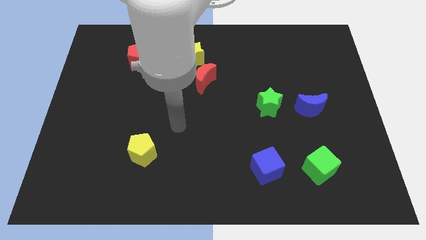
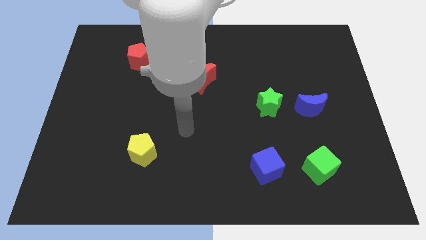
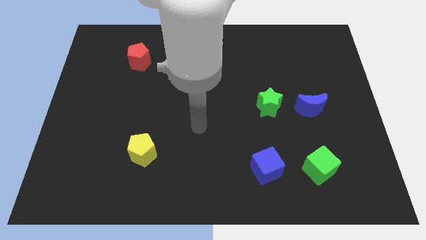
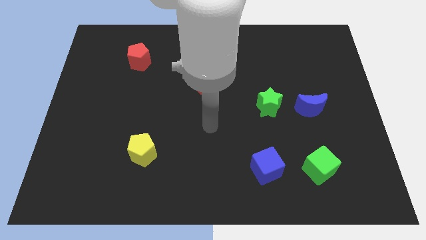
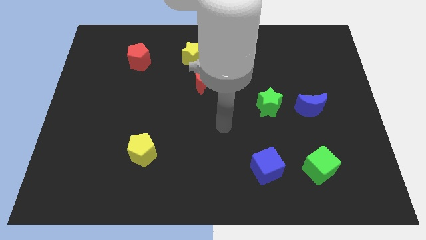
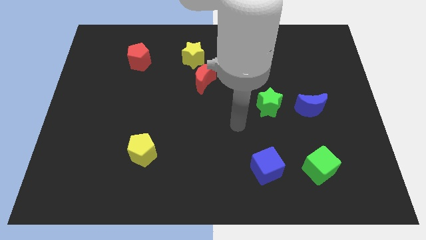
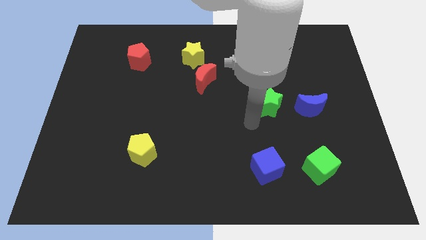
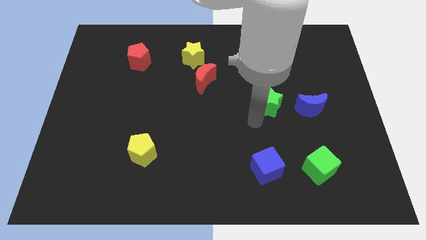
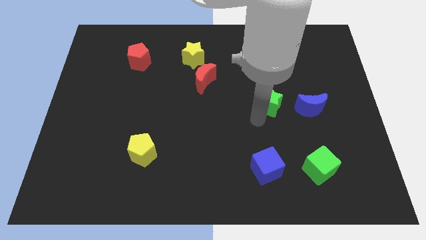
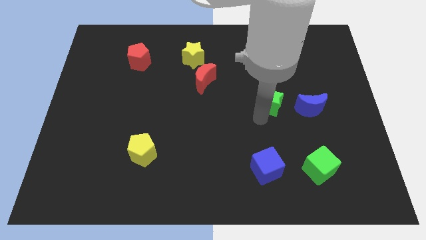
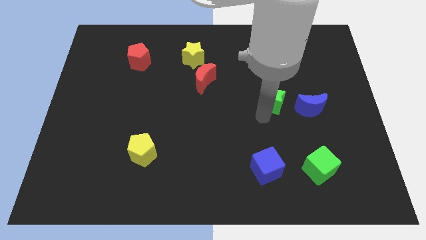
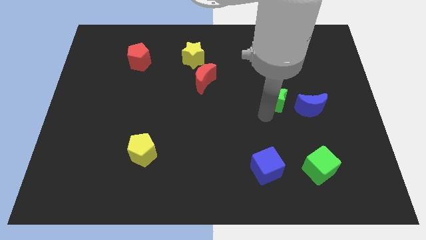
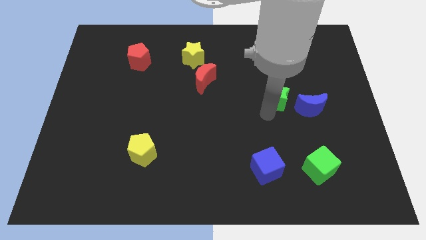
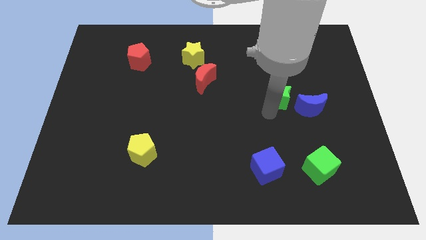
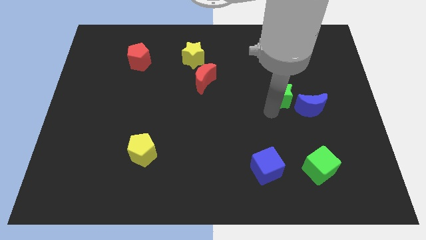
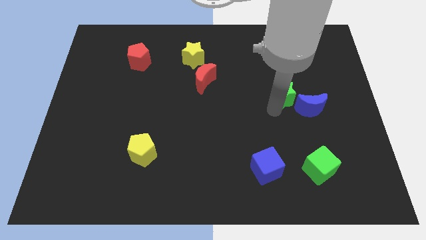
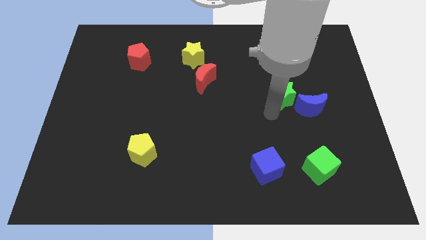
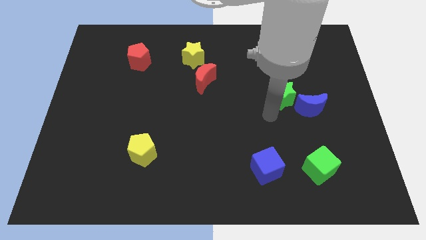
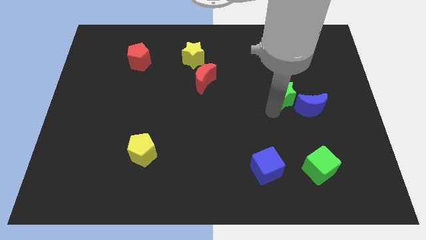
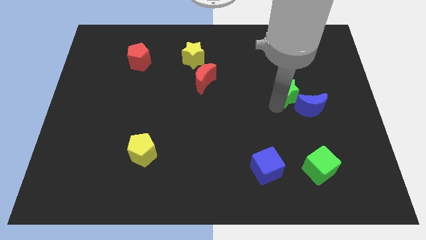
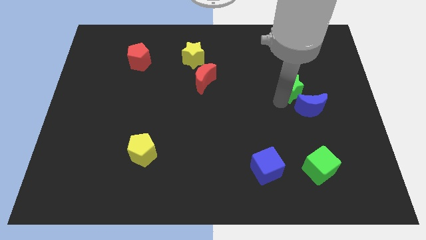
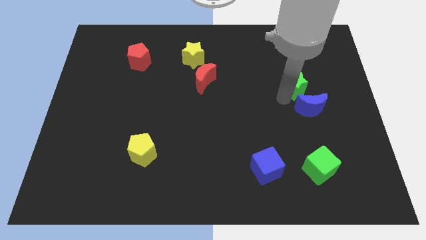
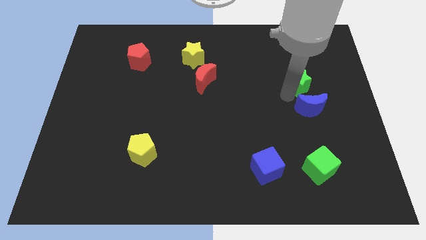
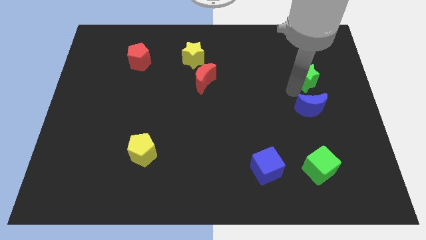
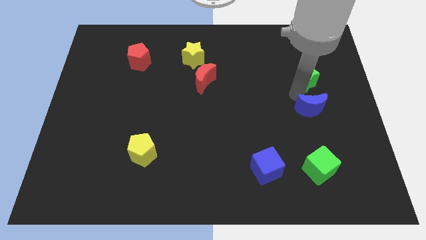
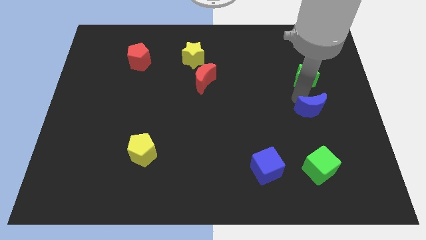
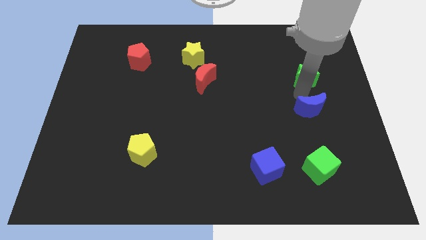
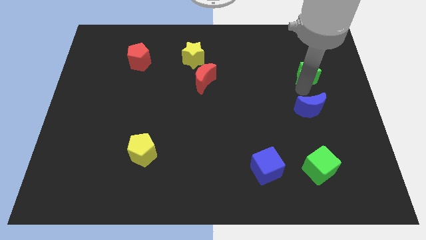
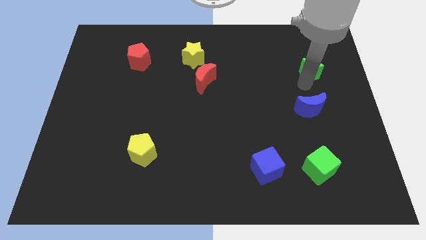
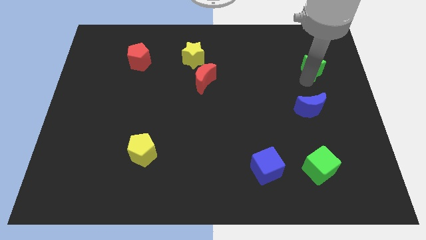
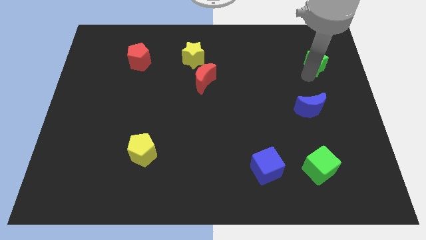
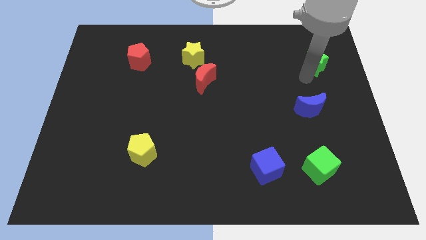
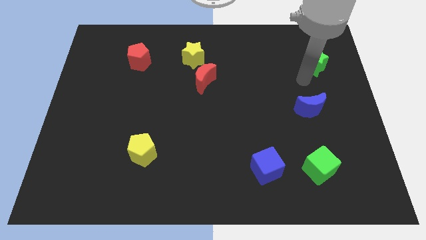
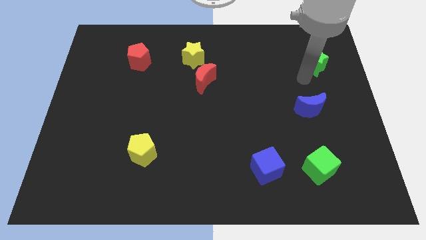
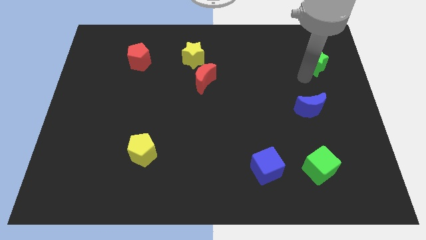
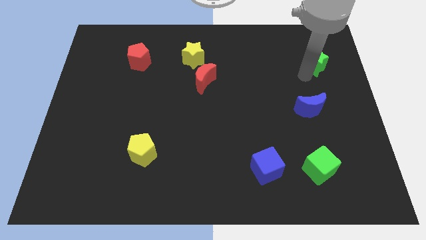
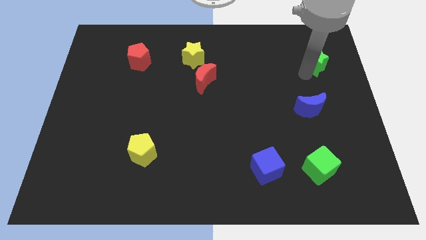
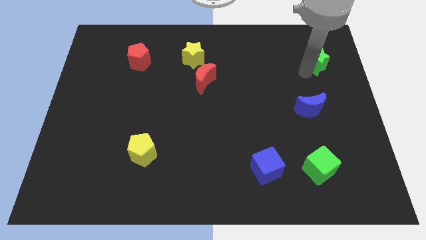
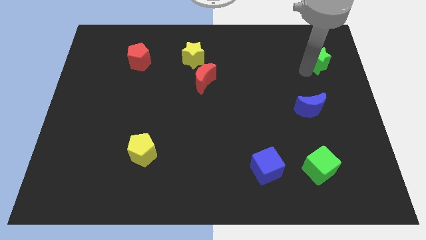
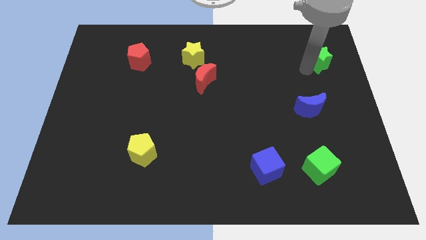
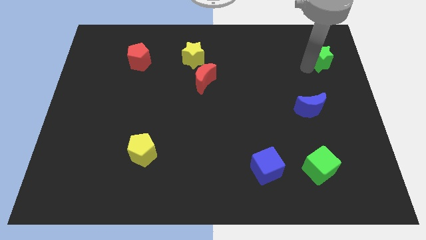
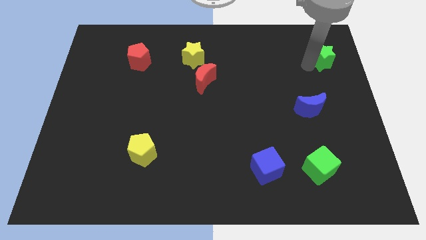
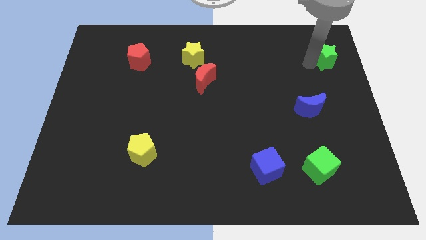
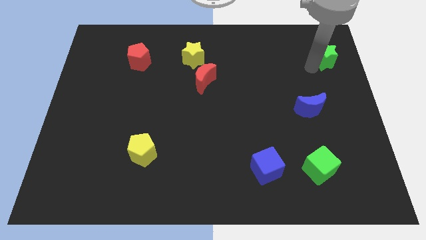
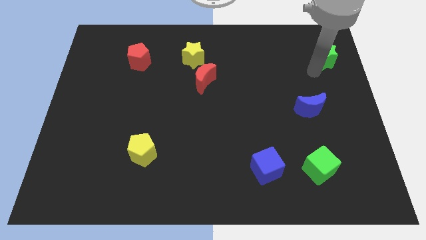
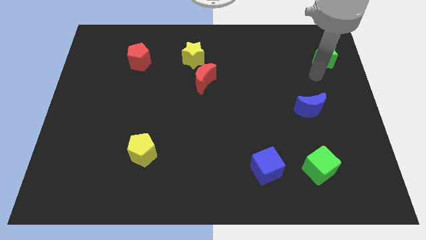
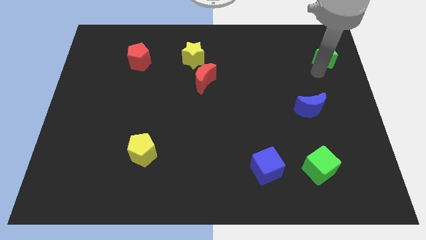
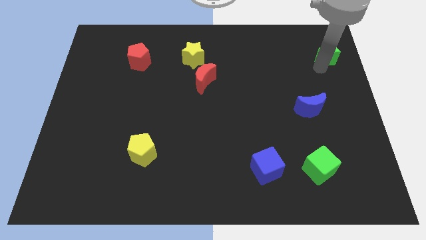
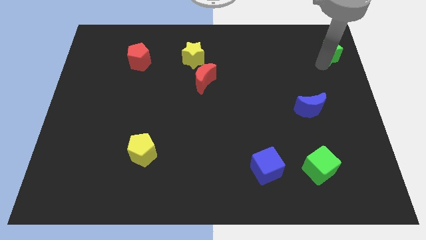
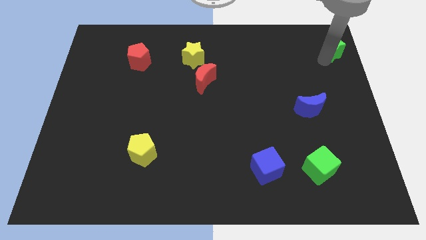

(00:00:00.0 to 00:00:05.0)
slide the green star to the top right of the board

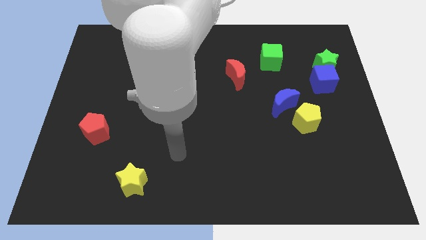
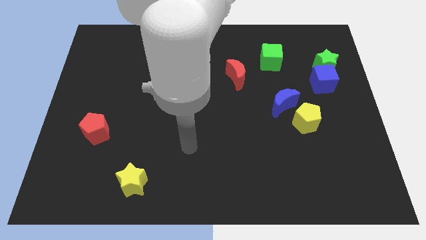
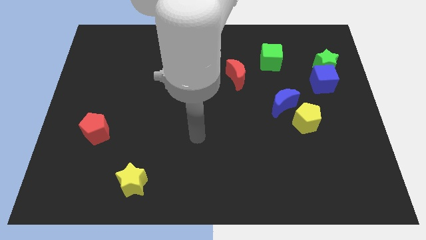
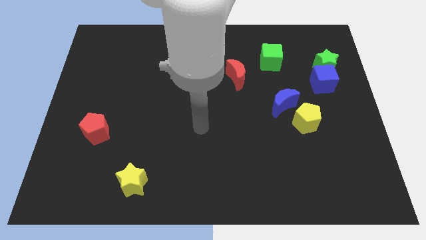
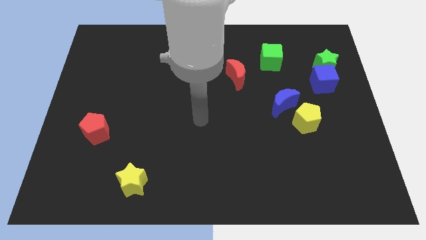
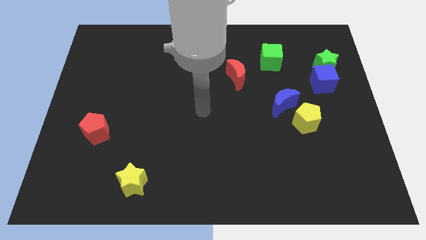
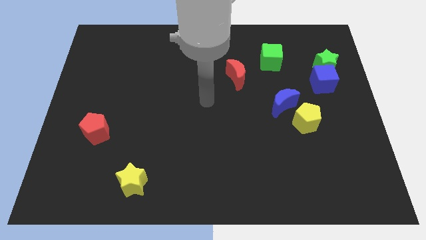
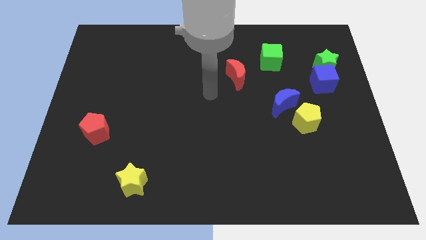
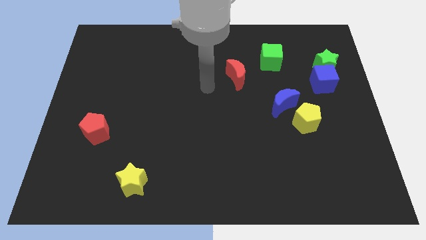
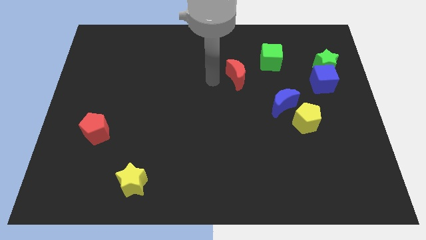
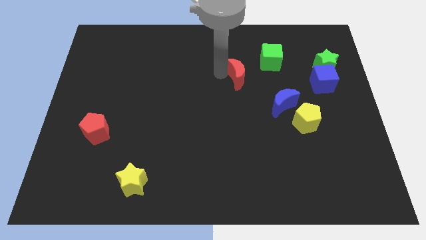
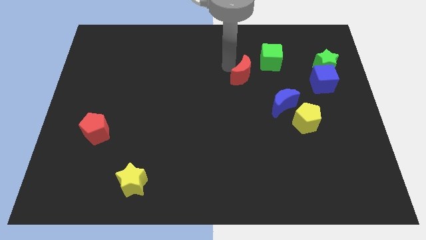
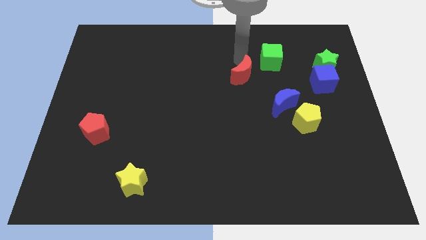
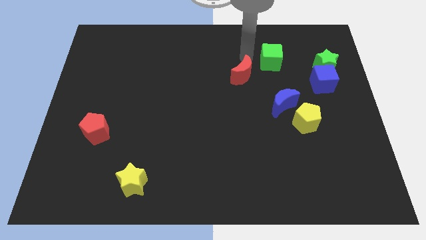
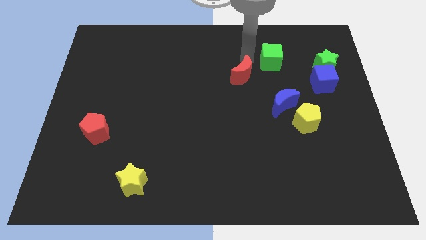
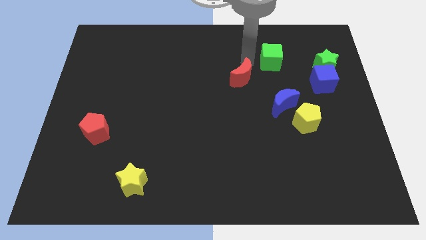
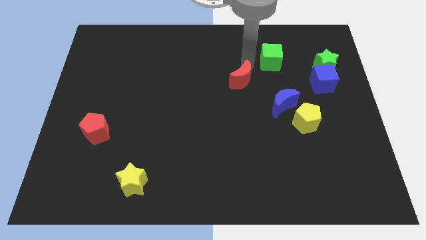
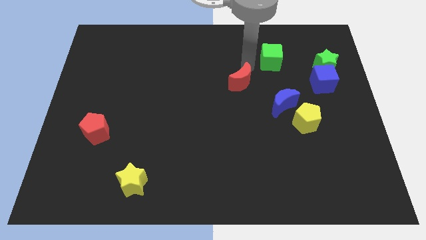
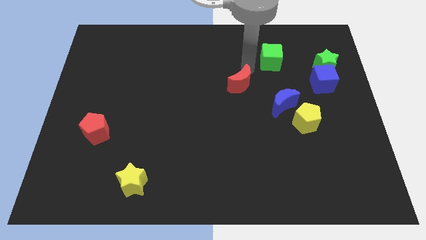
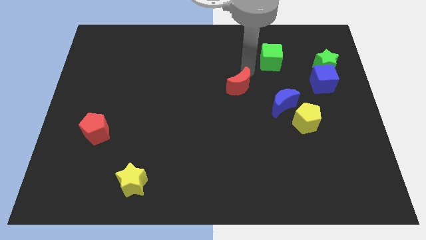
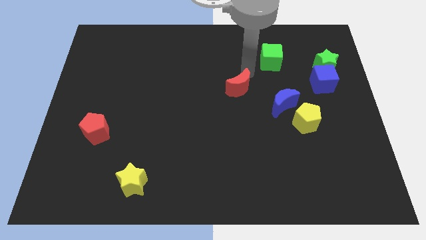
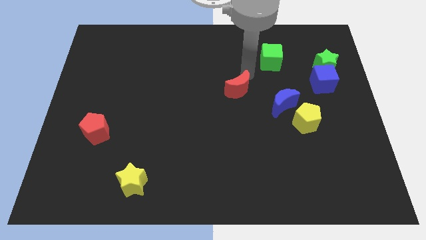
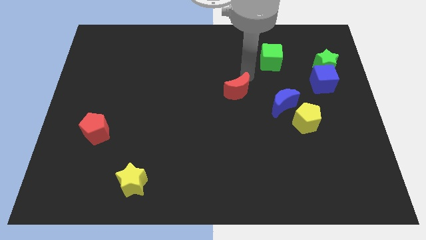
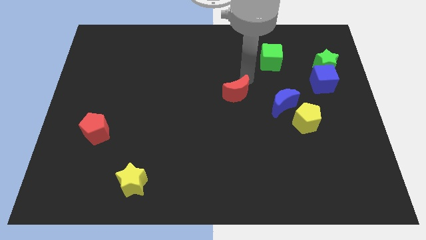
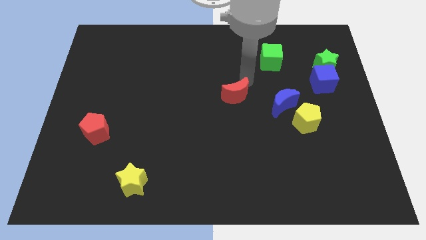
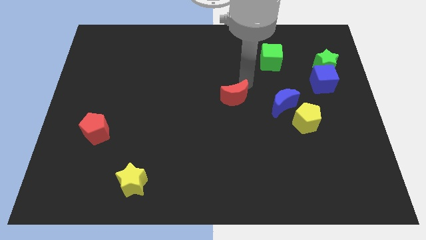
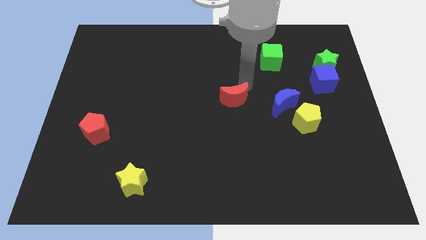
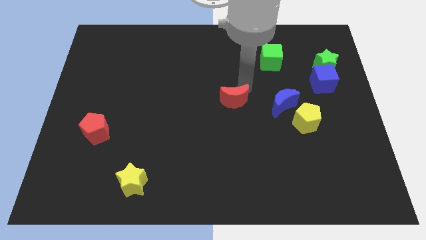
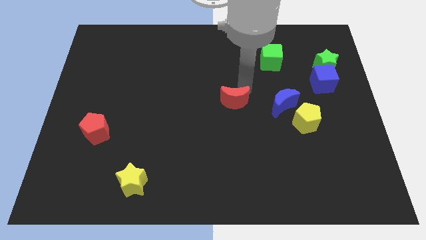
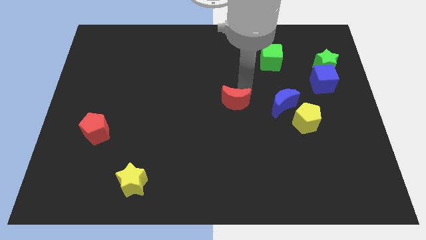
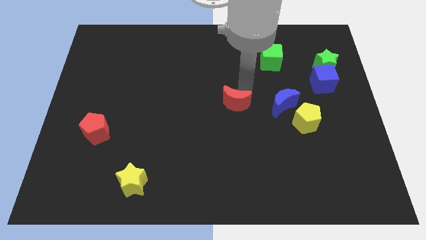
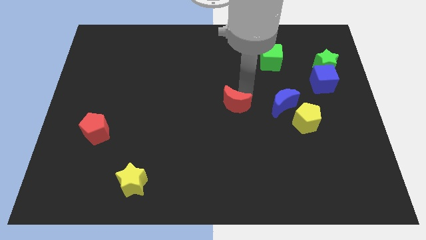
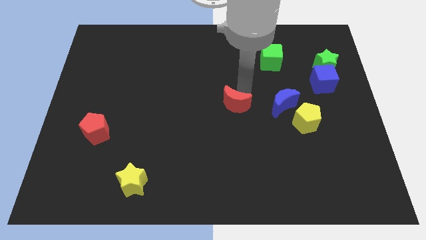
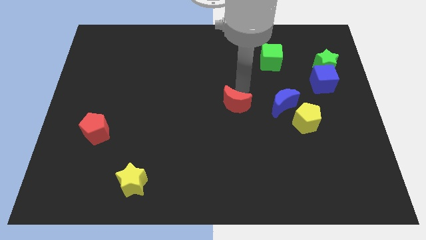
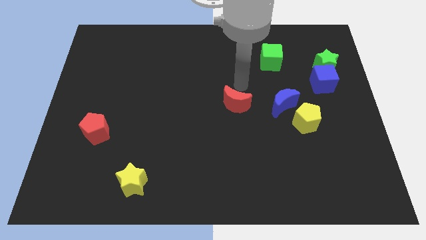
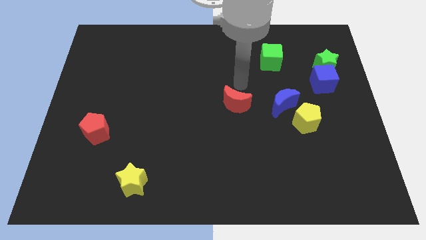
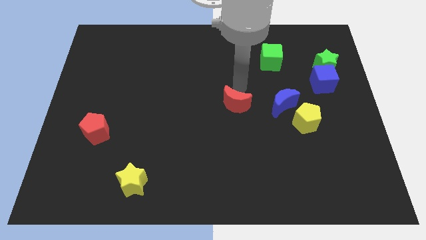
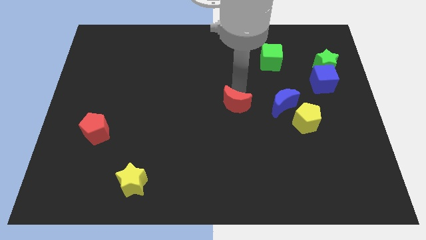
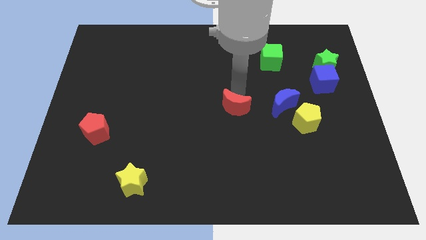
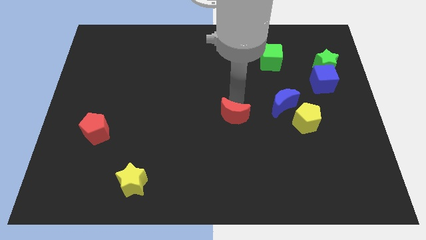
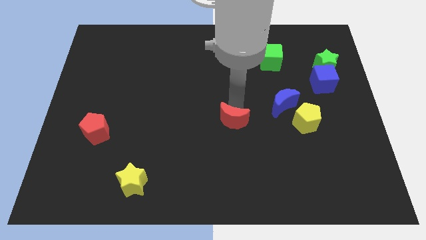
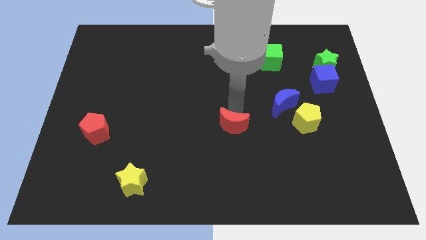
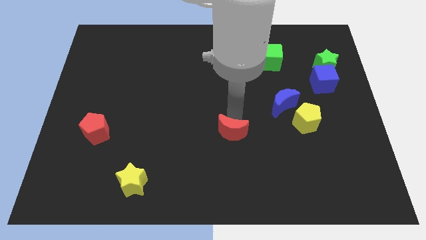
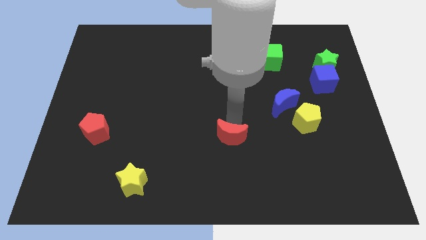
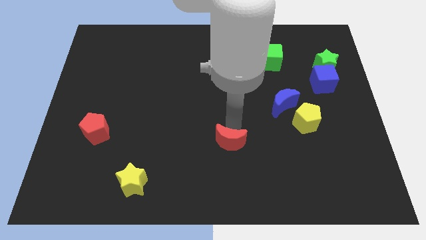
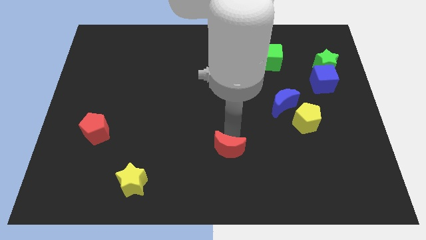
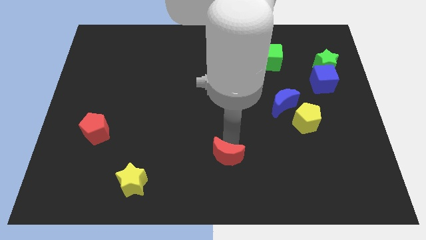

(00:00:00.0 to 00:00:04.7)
move the red moon to the bottom side
